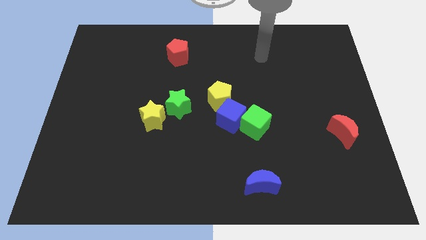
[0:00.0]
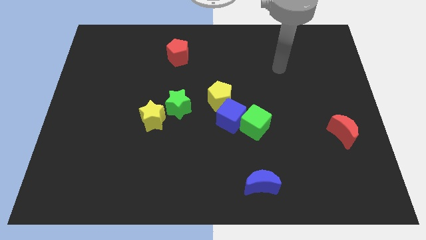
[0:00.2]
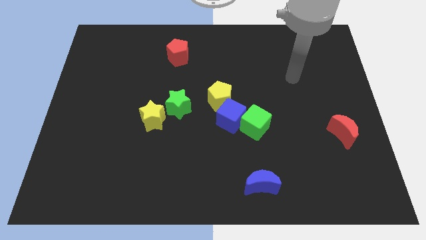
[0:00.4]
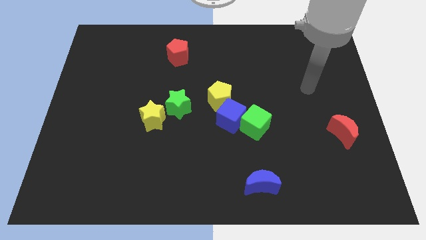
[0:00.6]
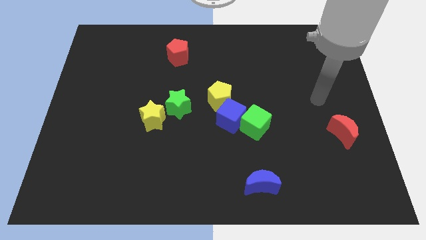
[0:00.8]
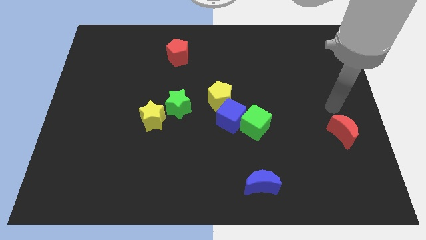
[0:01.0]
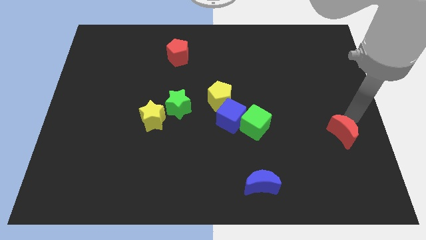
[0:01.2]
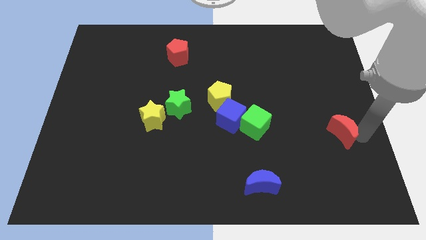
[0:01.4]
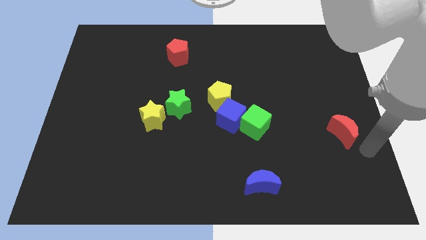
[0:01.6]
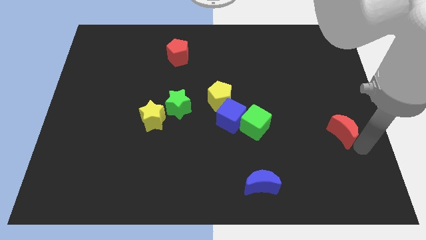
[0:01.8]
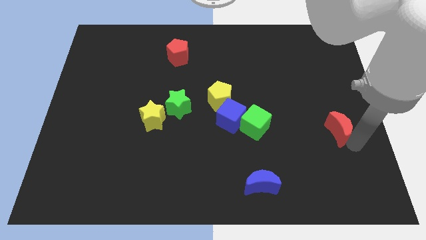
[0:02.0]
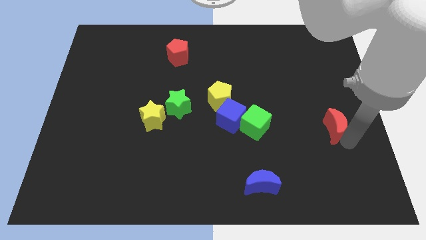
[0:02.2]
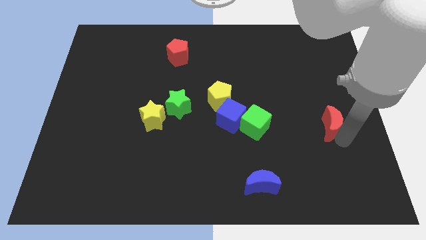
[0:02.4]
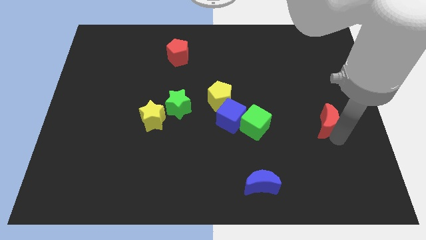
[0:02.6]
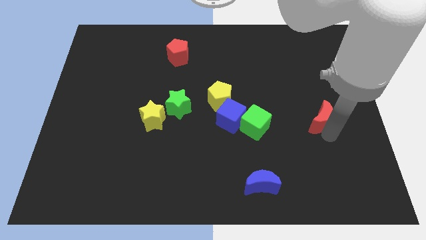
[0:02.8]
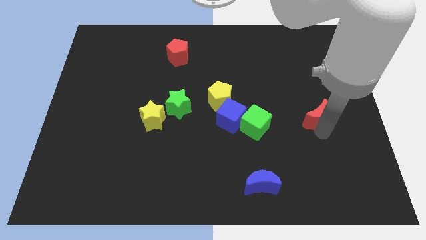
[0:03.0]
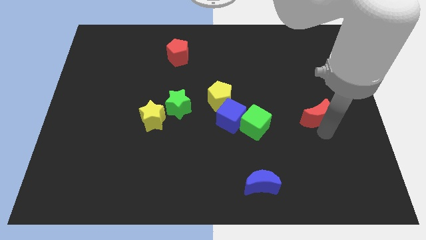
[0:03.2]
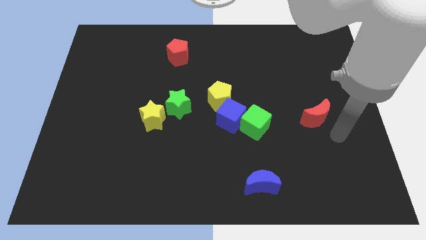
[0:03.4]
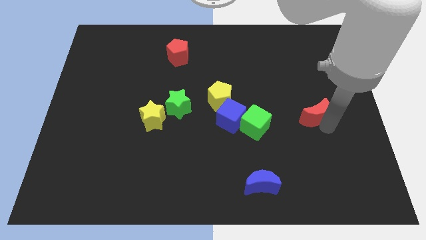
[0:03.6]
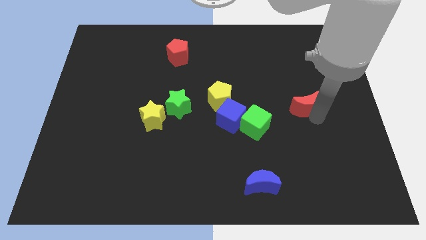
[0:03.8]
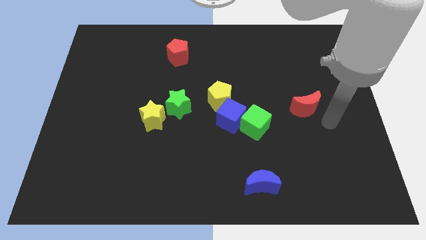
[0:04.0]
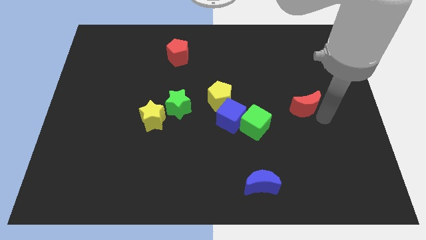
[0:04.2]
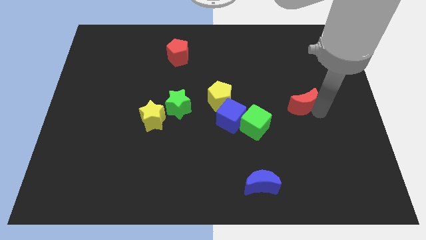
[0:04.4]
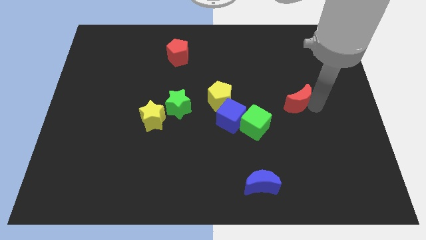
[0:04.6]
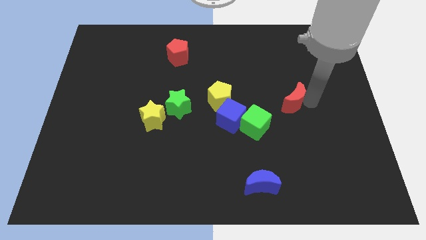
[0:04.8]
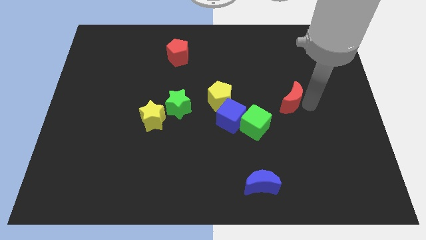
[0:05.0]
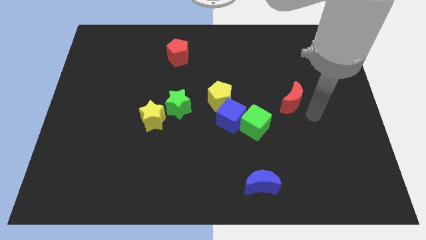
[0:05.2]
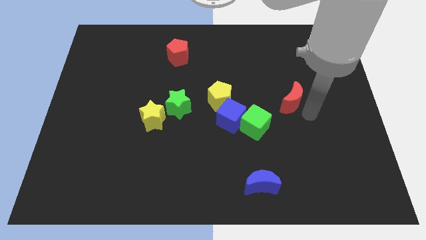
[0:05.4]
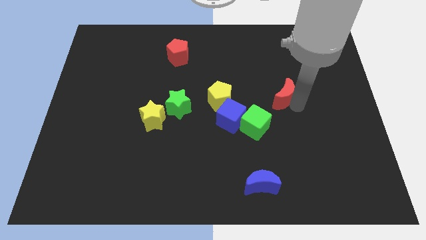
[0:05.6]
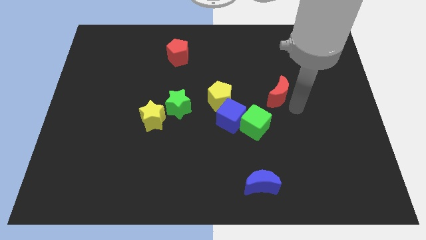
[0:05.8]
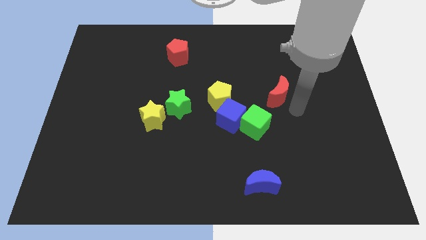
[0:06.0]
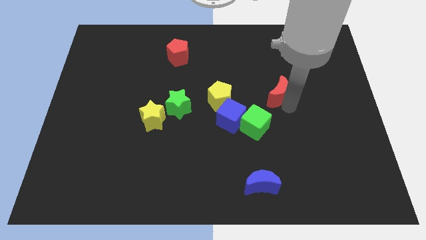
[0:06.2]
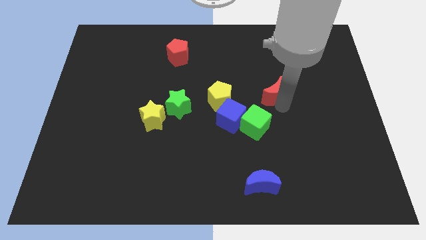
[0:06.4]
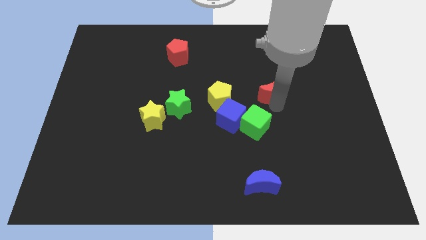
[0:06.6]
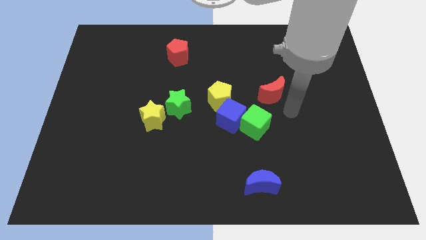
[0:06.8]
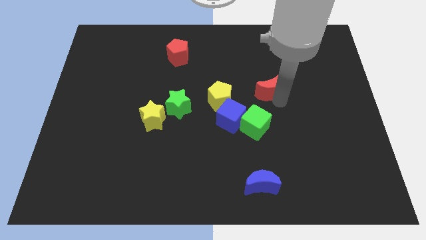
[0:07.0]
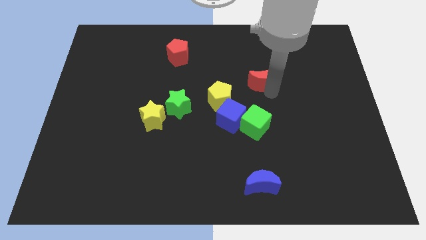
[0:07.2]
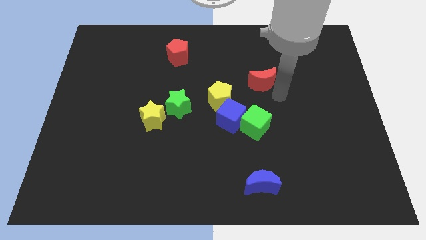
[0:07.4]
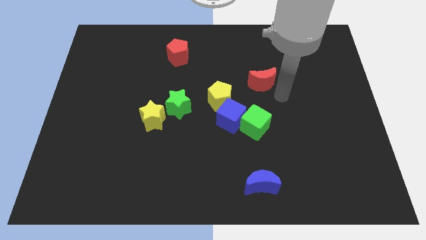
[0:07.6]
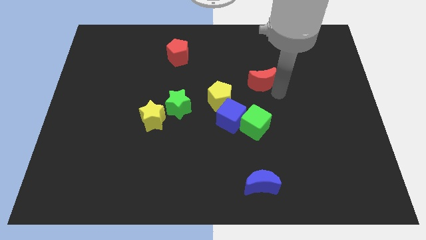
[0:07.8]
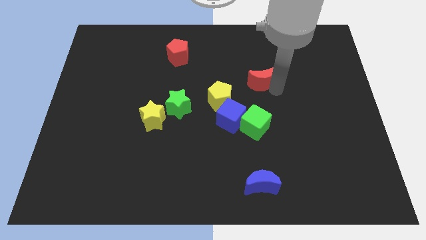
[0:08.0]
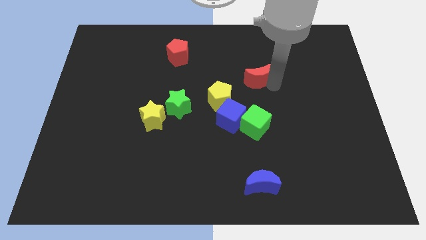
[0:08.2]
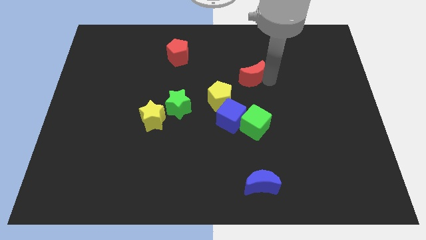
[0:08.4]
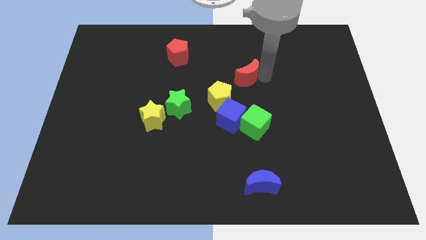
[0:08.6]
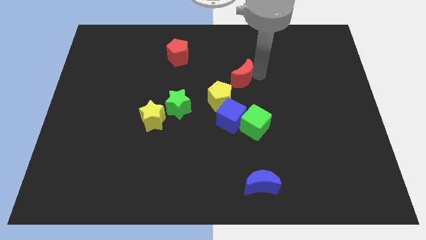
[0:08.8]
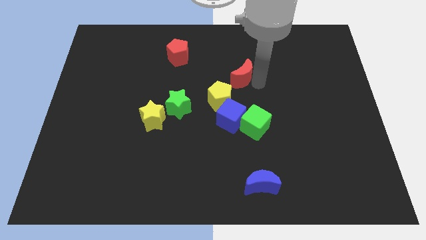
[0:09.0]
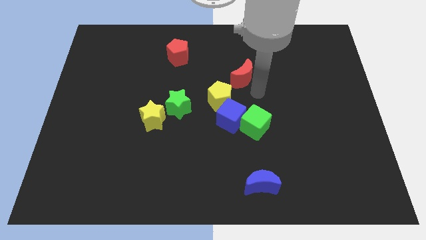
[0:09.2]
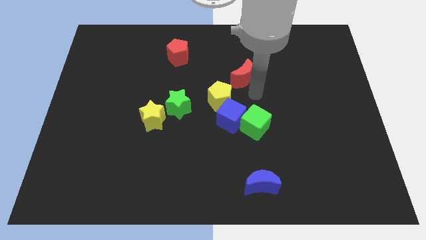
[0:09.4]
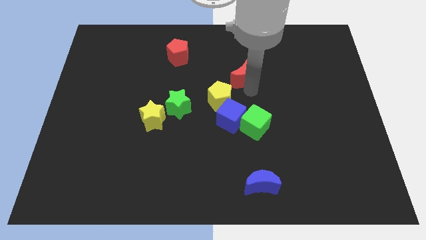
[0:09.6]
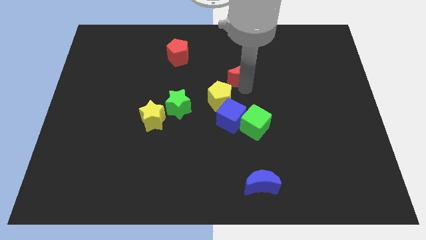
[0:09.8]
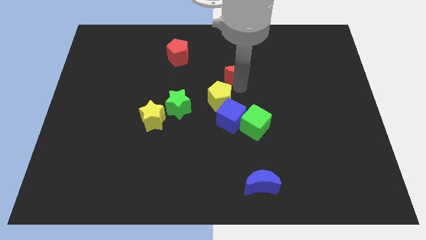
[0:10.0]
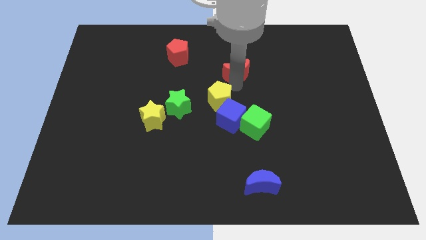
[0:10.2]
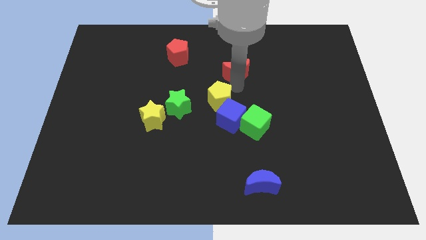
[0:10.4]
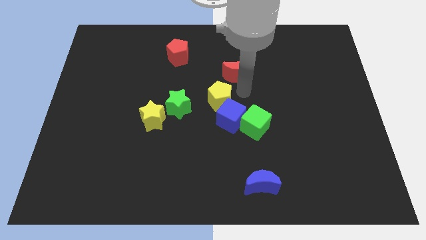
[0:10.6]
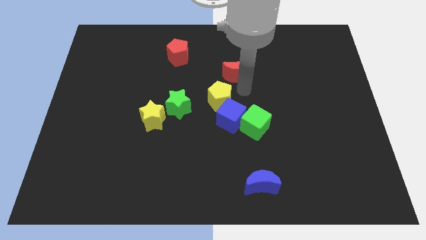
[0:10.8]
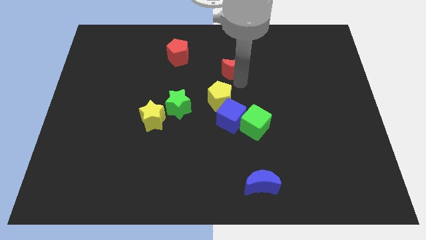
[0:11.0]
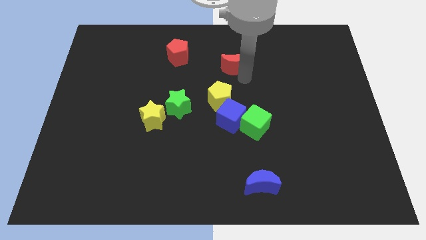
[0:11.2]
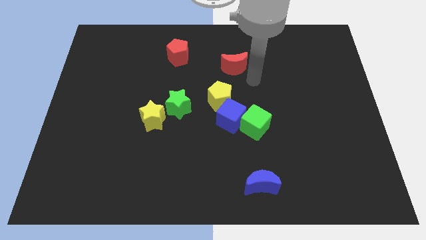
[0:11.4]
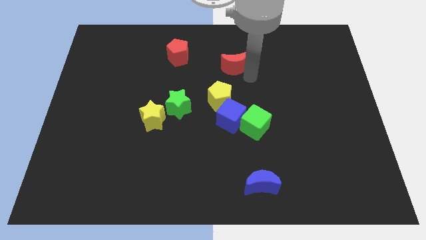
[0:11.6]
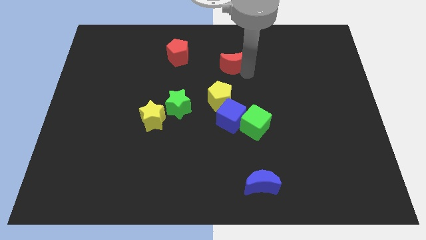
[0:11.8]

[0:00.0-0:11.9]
slide the red moon right of the red pentagon
